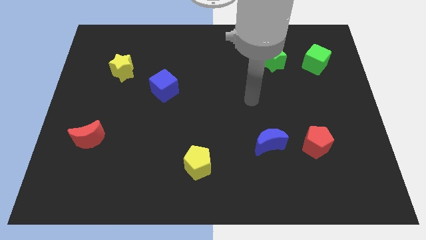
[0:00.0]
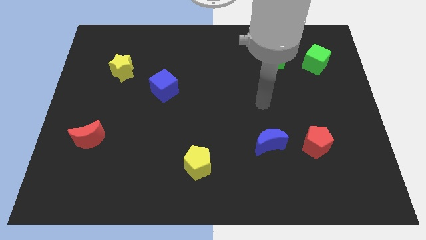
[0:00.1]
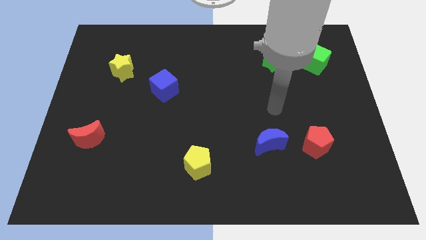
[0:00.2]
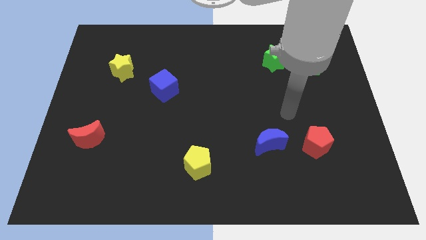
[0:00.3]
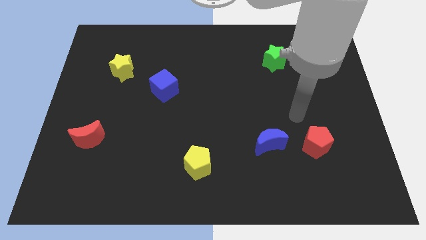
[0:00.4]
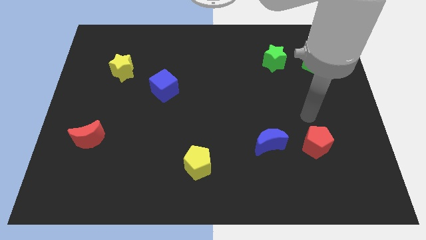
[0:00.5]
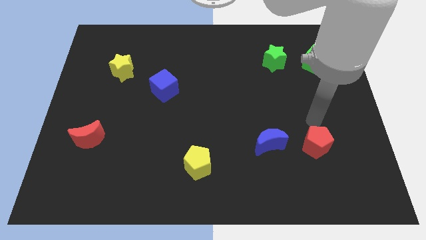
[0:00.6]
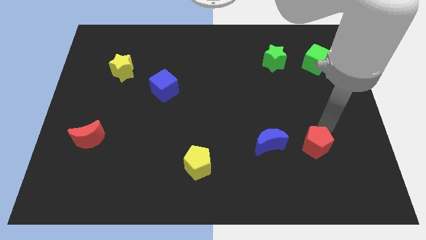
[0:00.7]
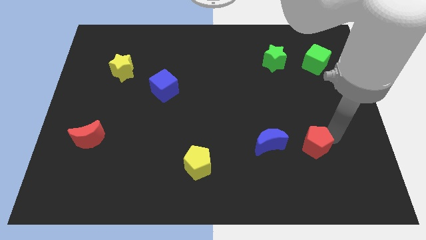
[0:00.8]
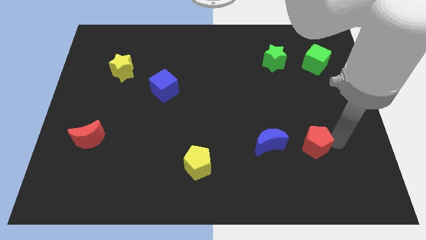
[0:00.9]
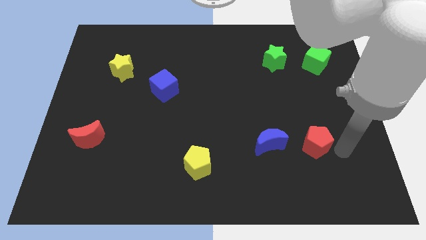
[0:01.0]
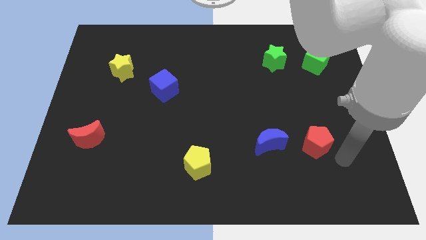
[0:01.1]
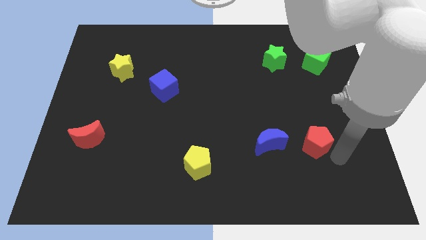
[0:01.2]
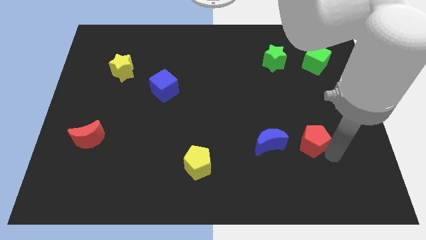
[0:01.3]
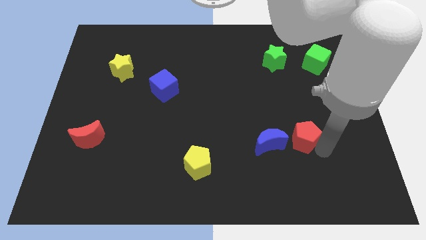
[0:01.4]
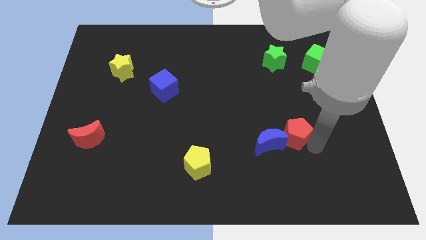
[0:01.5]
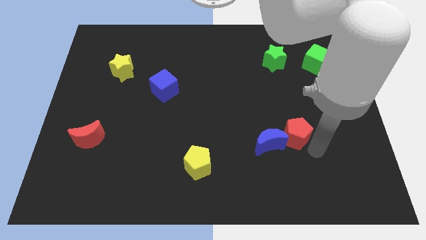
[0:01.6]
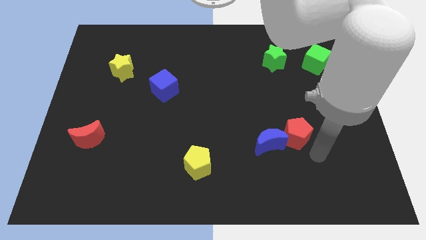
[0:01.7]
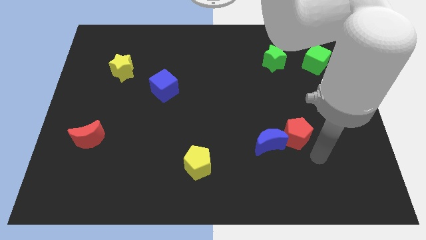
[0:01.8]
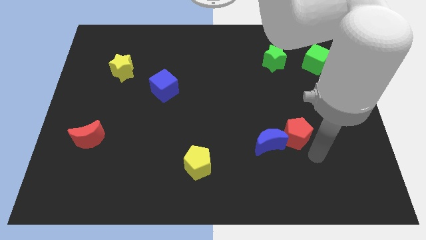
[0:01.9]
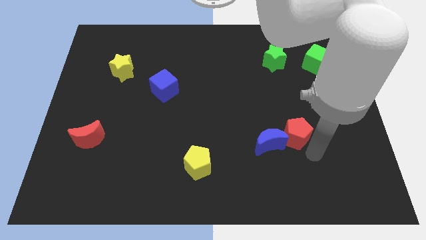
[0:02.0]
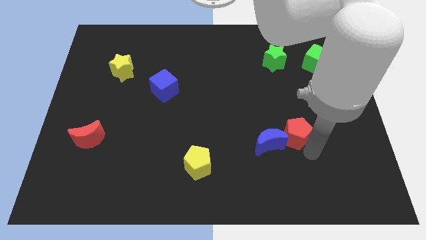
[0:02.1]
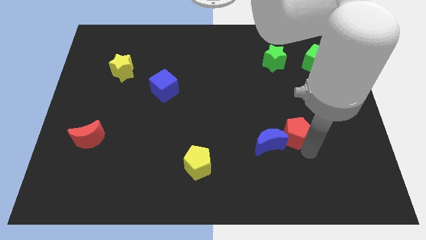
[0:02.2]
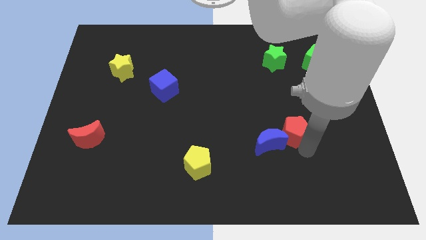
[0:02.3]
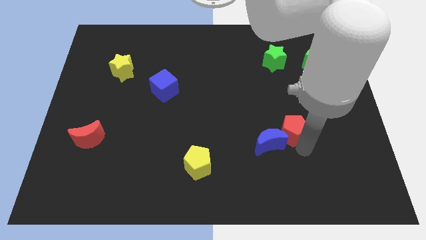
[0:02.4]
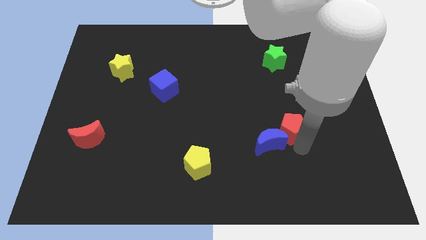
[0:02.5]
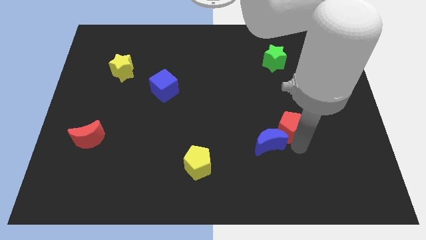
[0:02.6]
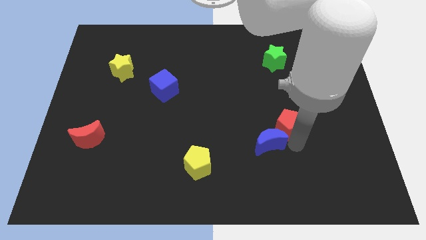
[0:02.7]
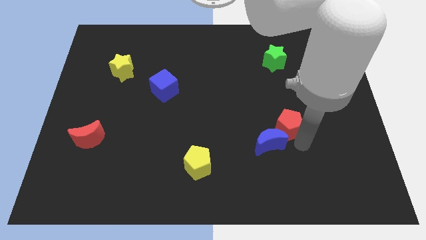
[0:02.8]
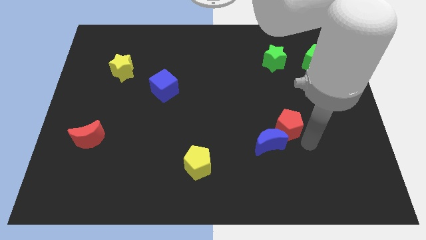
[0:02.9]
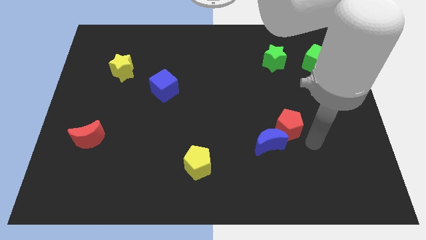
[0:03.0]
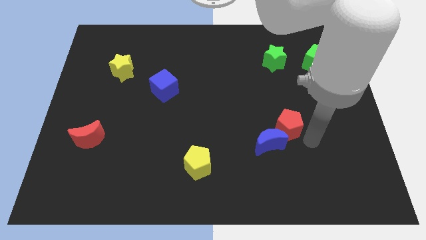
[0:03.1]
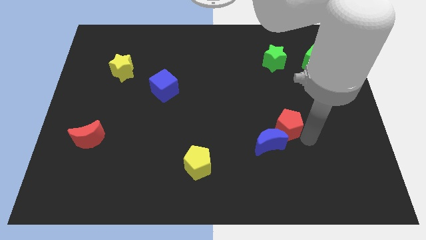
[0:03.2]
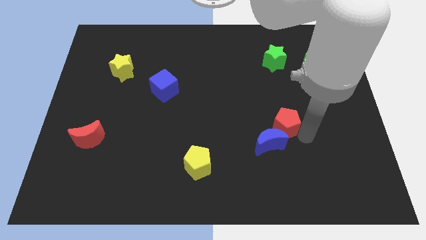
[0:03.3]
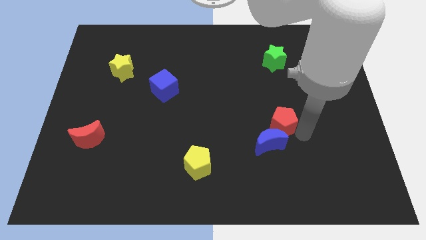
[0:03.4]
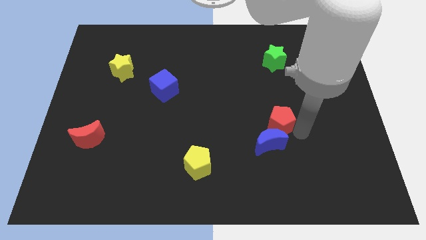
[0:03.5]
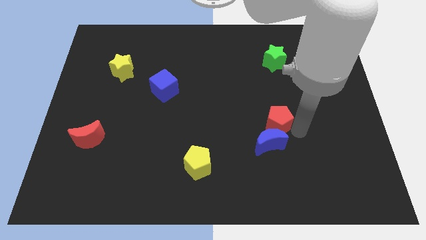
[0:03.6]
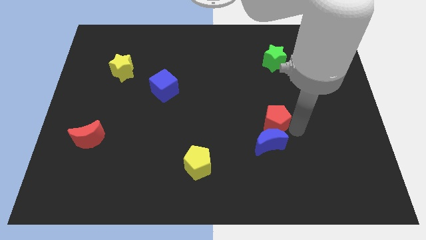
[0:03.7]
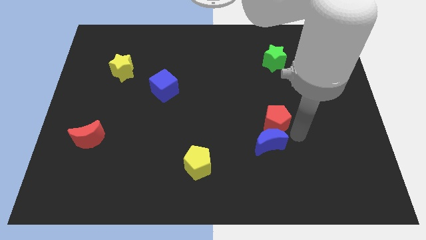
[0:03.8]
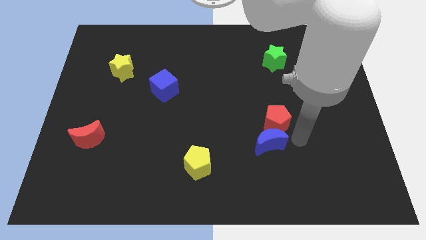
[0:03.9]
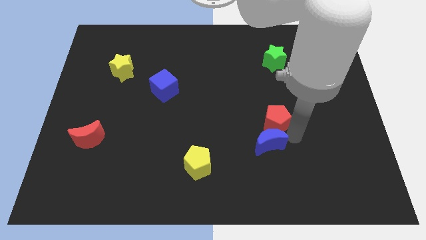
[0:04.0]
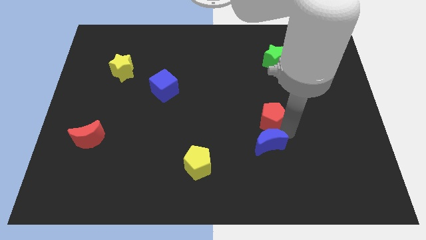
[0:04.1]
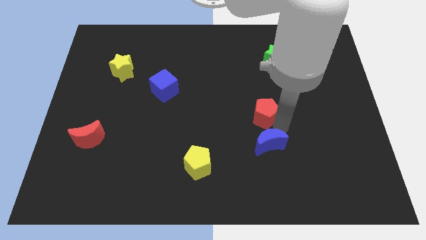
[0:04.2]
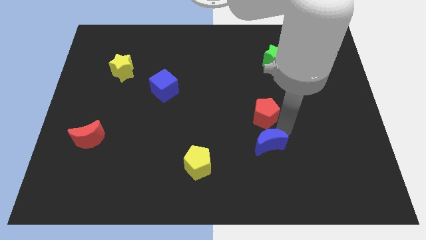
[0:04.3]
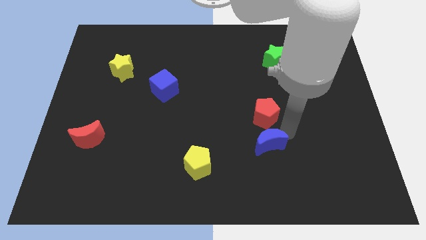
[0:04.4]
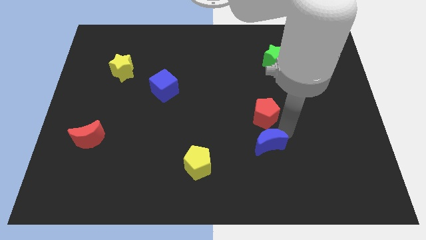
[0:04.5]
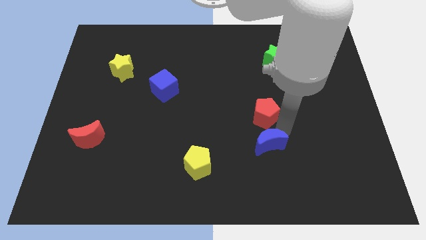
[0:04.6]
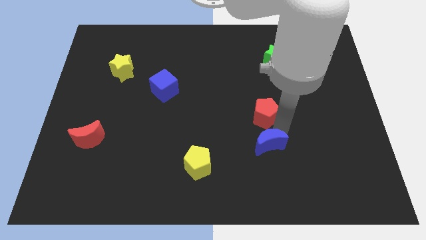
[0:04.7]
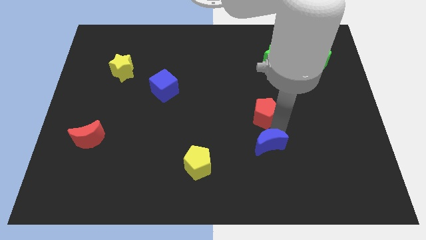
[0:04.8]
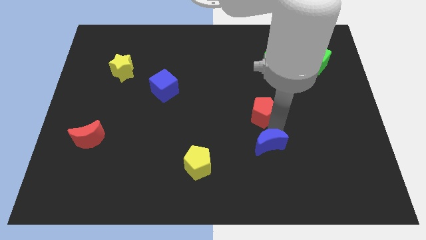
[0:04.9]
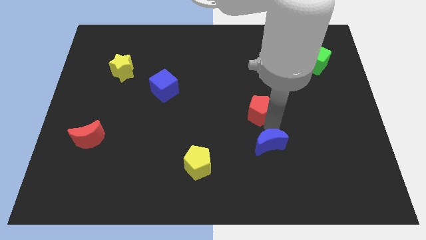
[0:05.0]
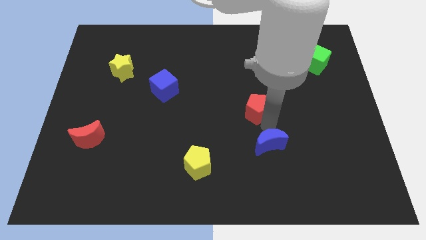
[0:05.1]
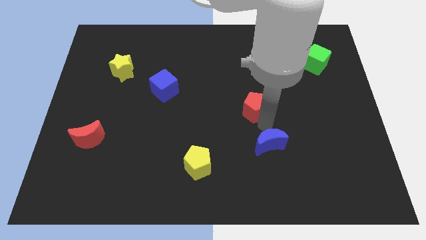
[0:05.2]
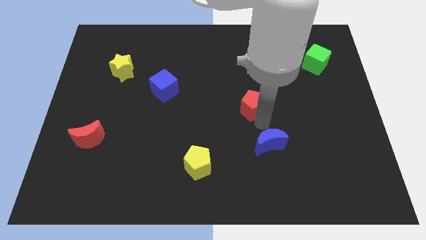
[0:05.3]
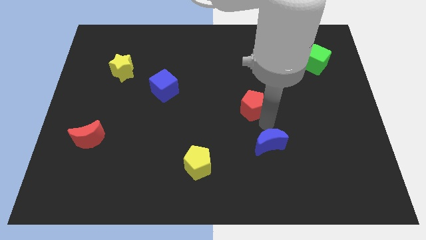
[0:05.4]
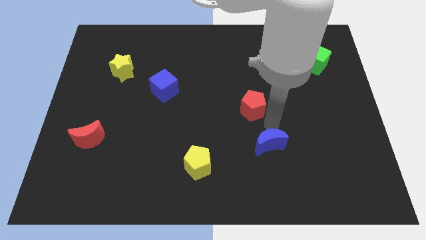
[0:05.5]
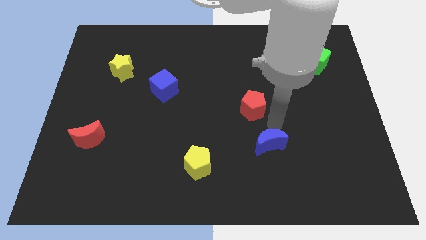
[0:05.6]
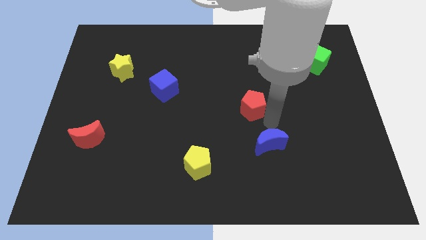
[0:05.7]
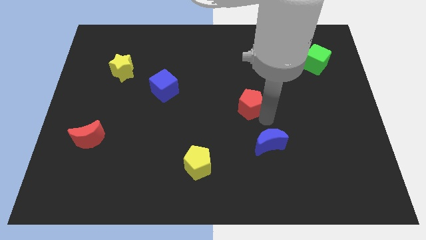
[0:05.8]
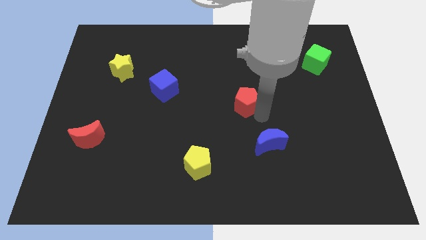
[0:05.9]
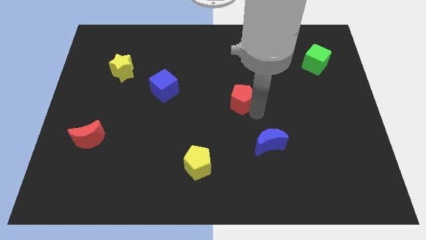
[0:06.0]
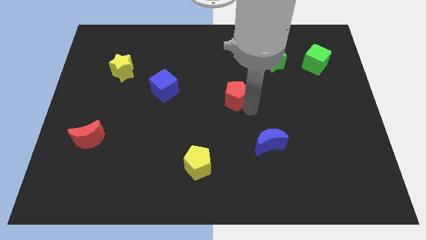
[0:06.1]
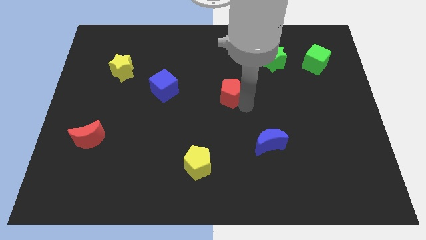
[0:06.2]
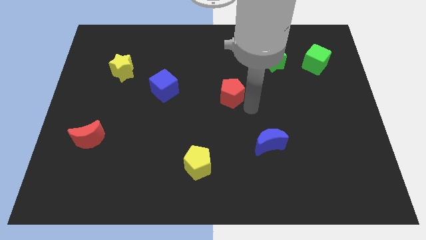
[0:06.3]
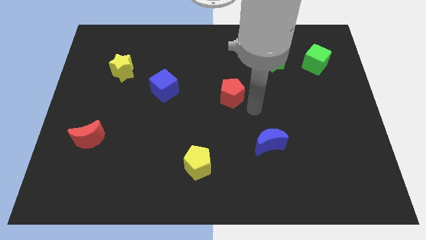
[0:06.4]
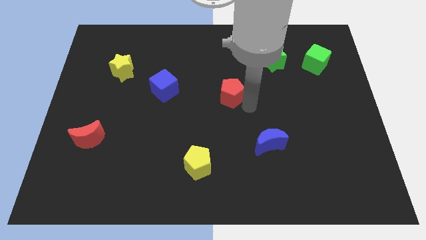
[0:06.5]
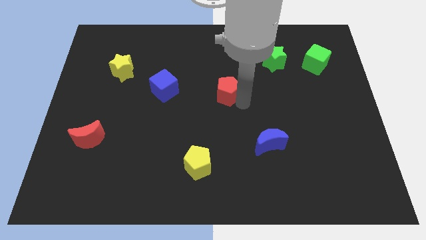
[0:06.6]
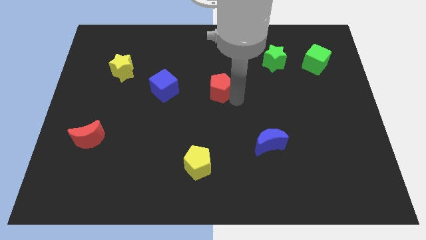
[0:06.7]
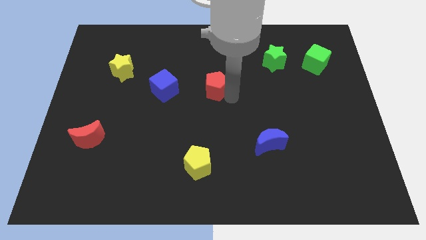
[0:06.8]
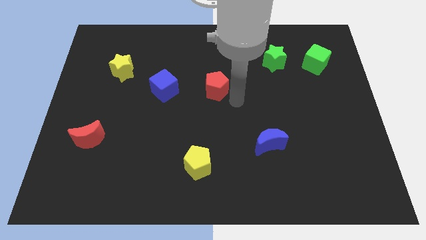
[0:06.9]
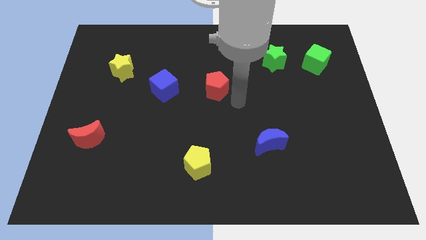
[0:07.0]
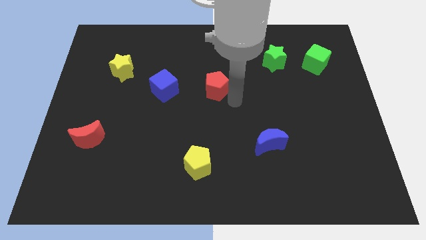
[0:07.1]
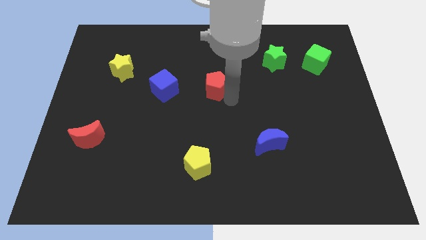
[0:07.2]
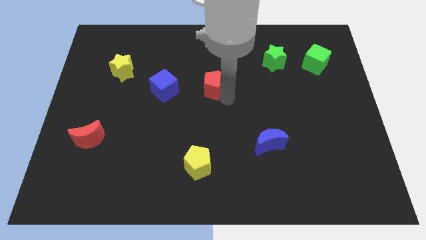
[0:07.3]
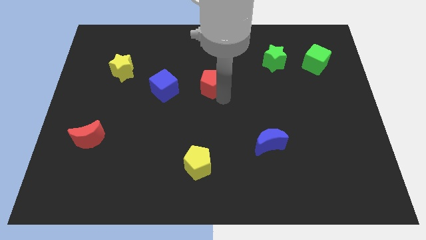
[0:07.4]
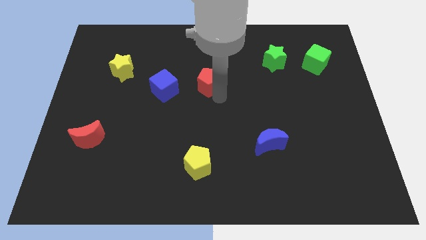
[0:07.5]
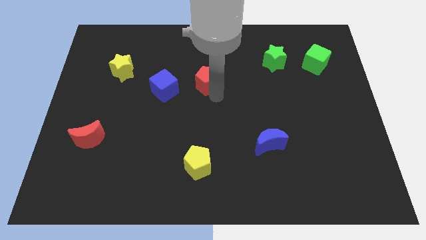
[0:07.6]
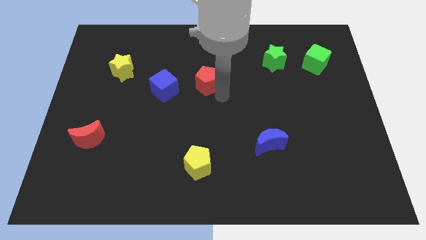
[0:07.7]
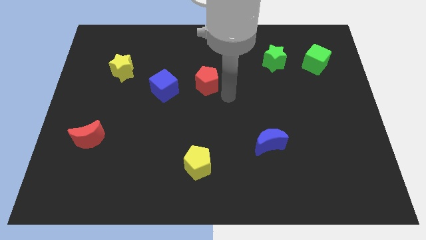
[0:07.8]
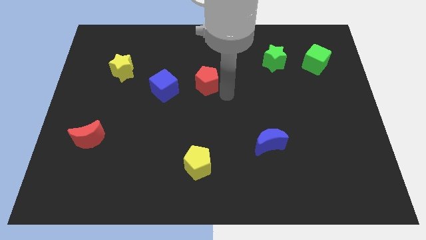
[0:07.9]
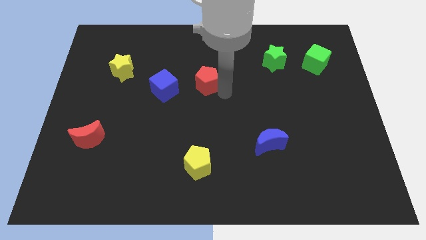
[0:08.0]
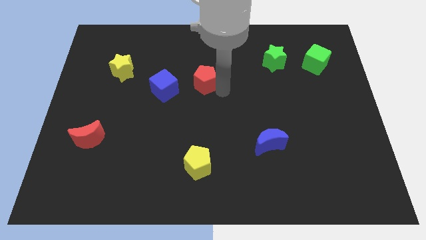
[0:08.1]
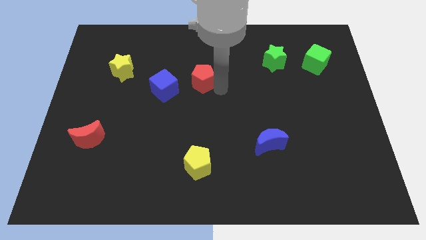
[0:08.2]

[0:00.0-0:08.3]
put the red pentagon to the top right of the blue cube
